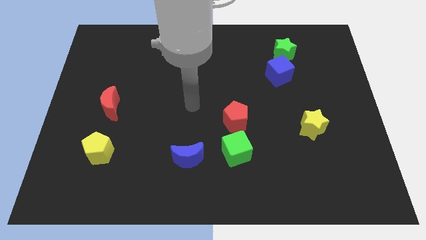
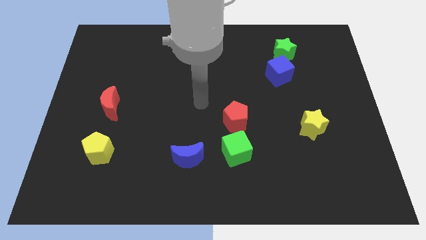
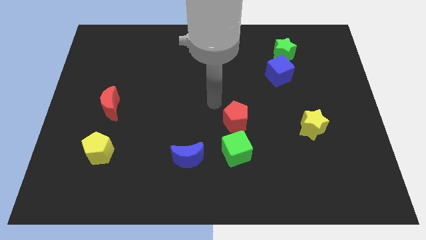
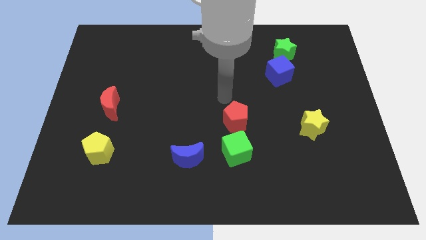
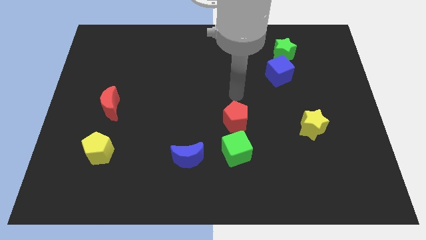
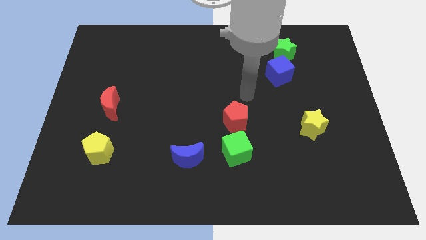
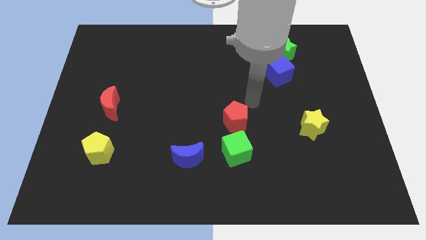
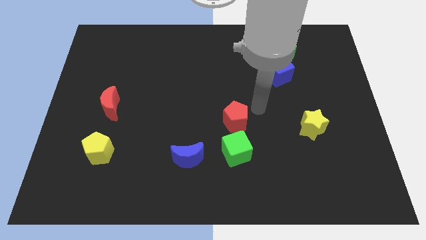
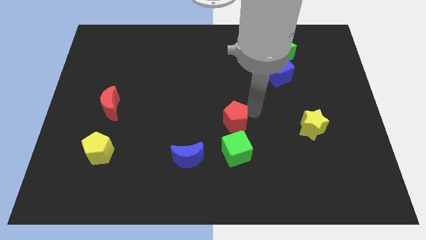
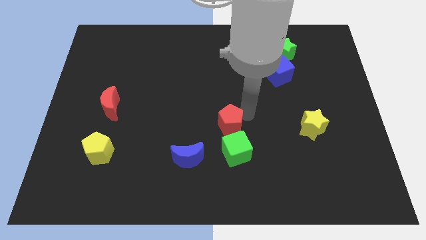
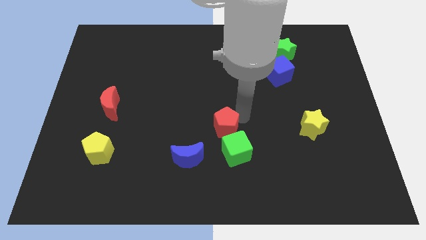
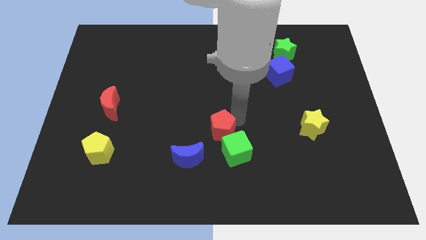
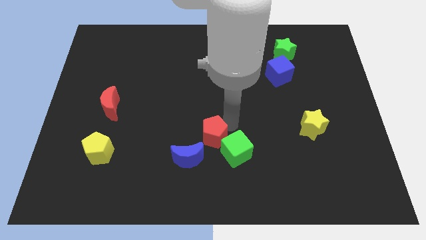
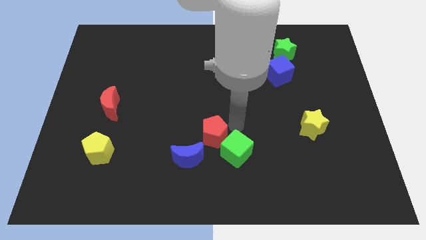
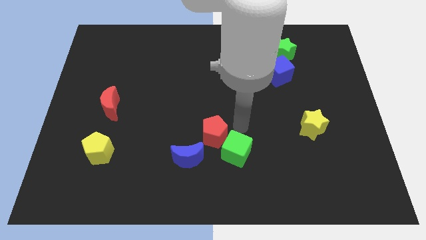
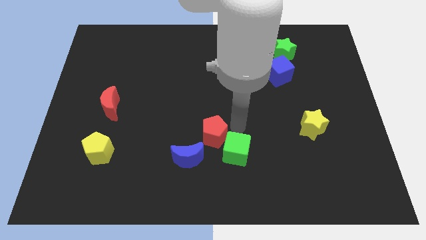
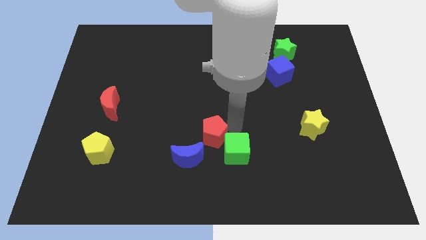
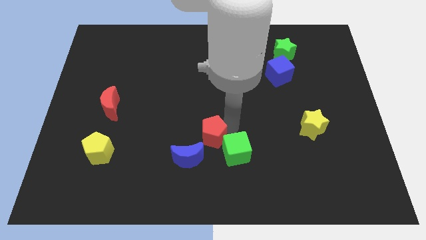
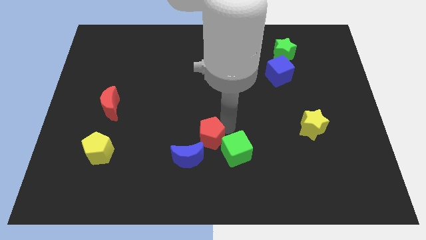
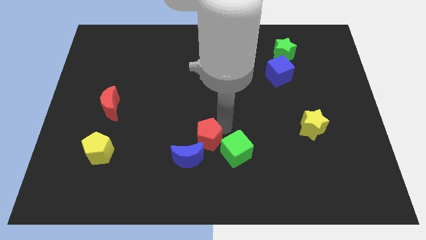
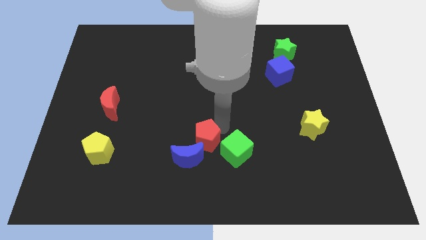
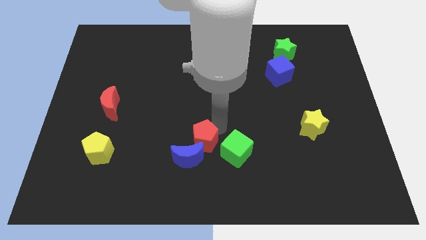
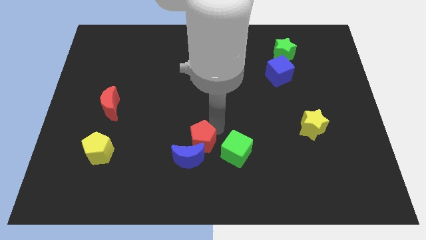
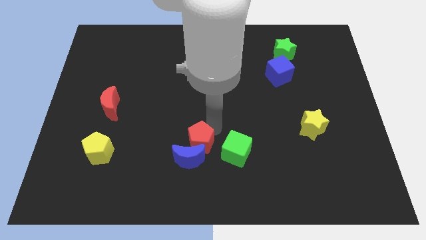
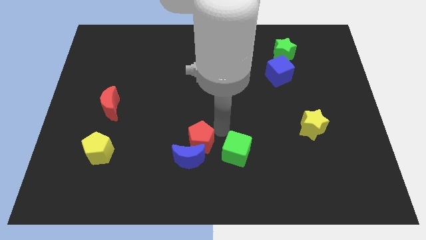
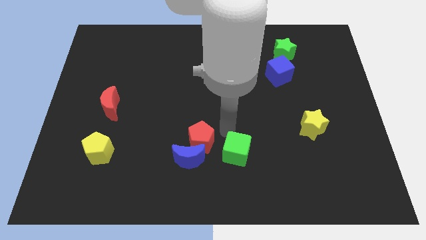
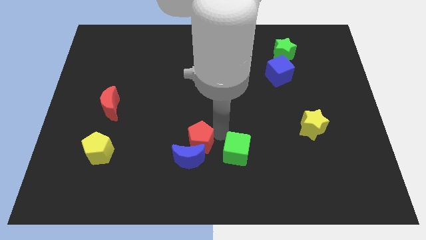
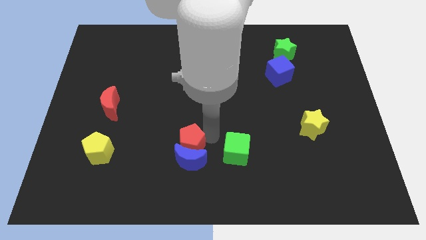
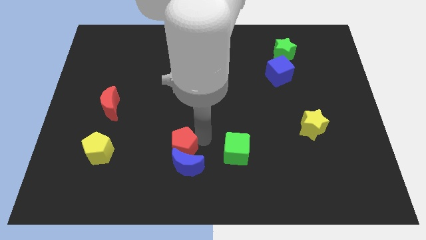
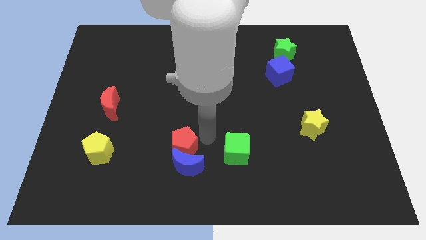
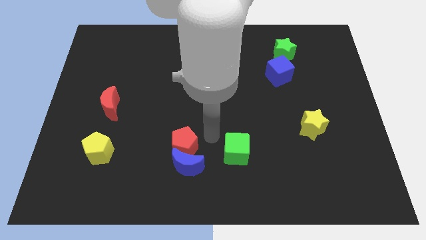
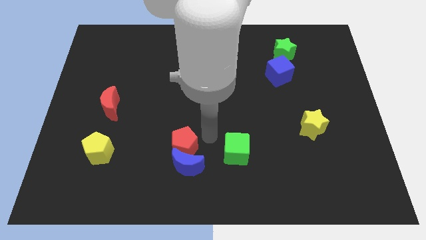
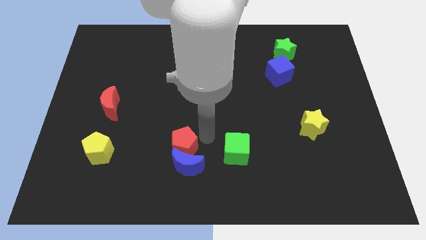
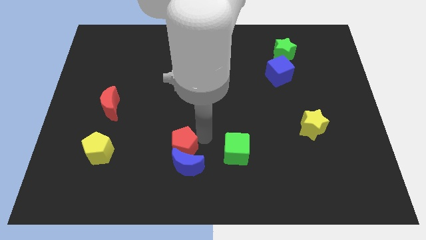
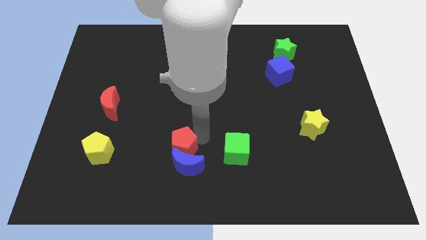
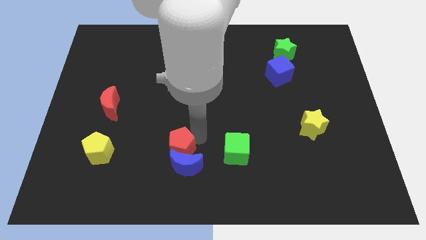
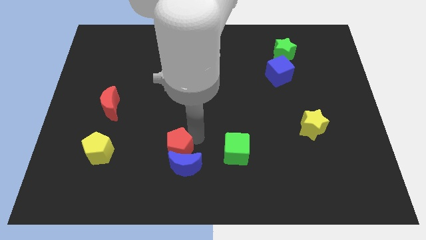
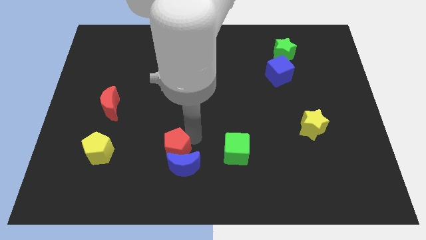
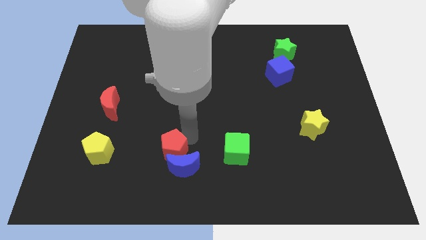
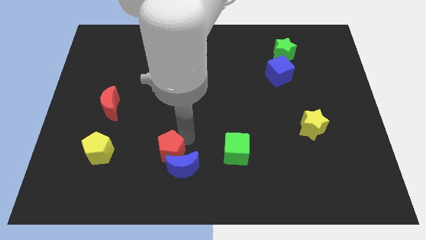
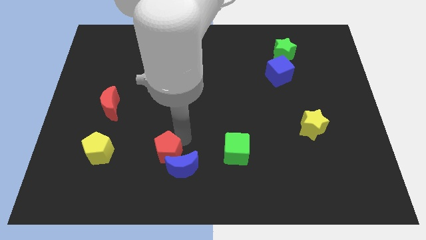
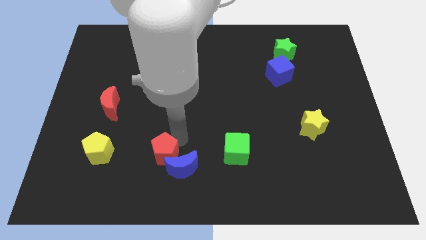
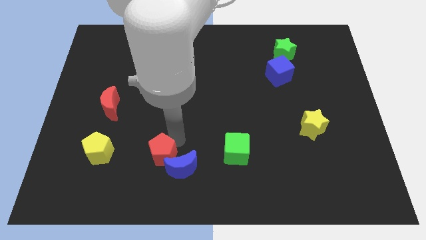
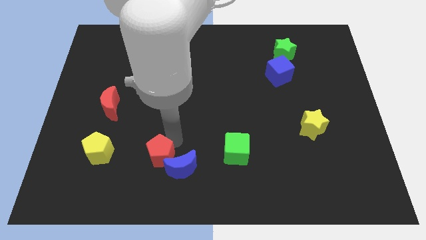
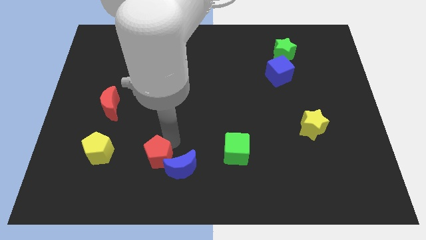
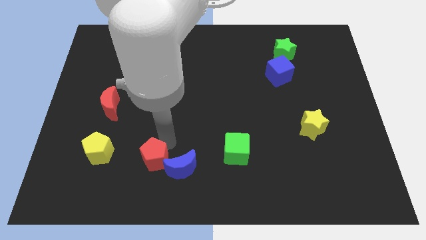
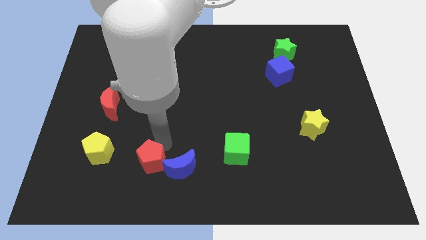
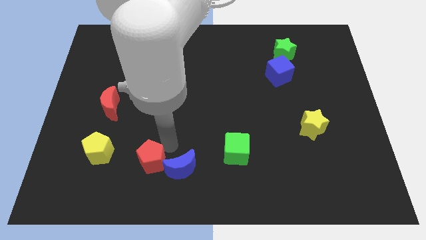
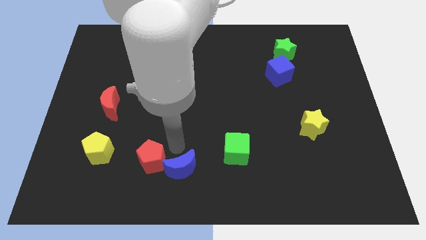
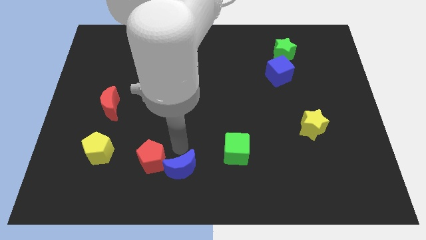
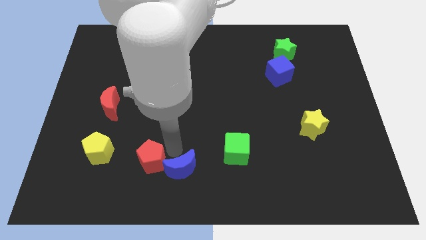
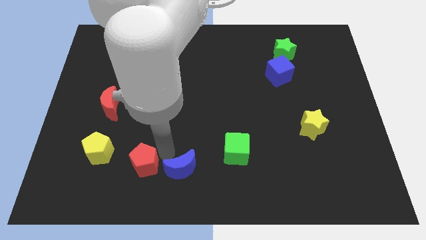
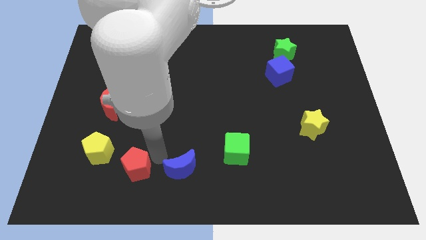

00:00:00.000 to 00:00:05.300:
push the red pentagon to the bottom right of the yellow pentagon

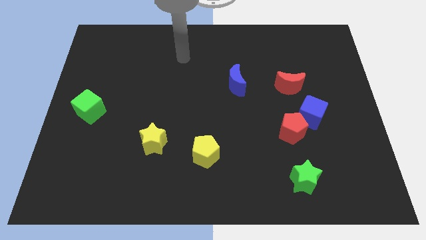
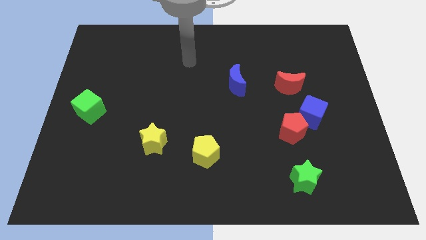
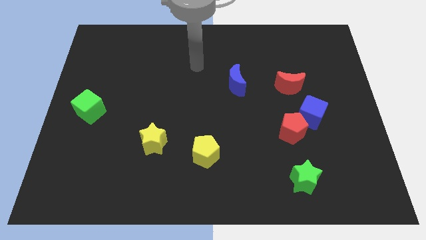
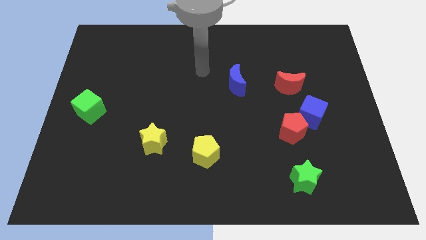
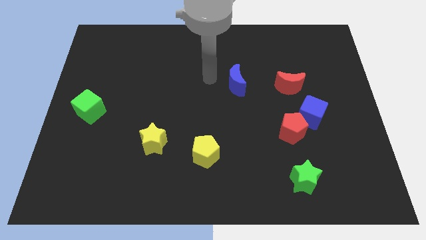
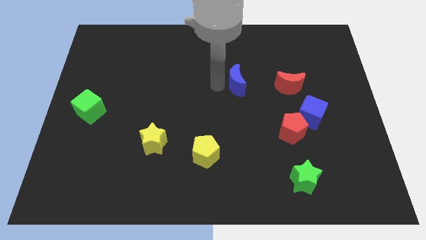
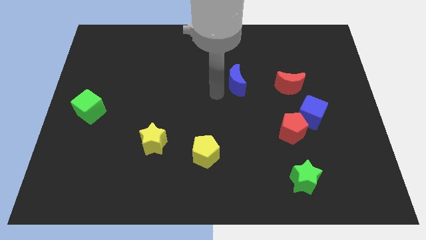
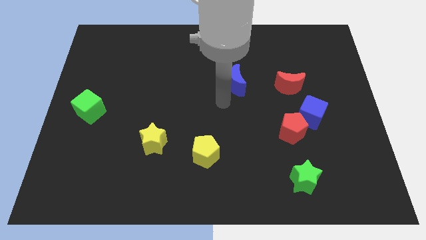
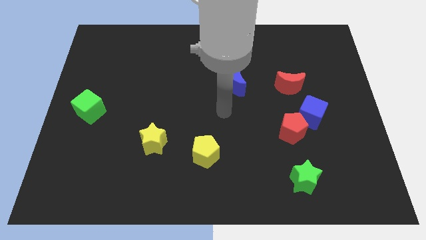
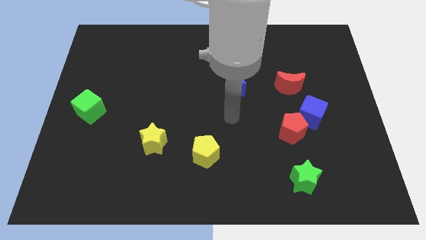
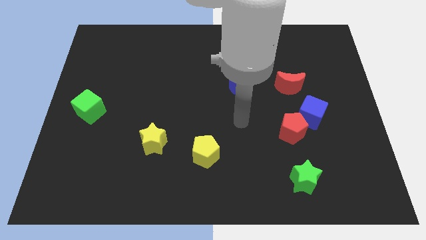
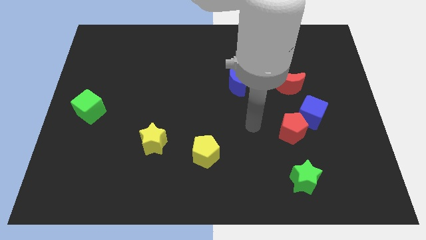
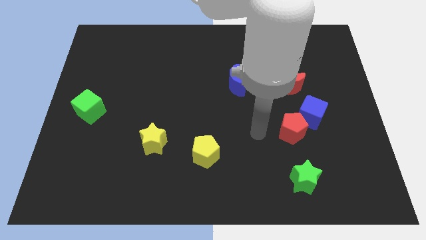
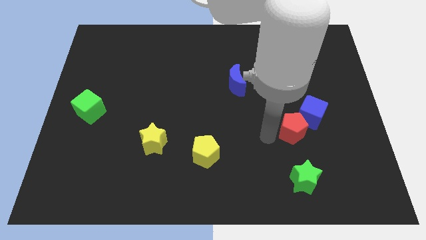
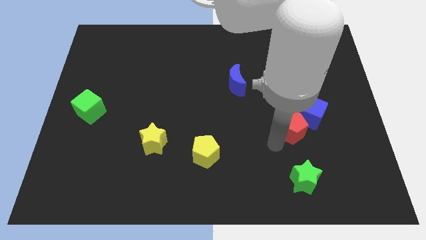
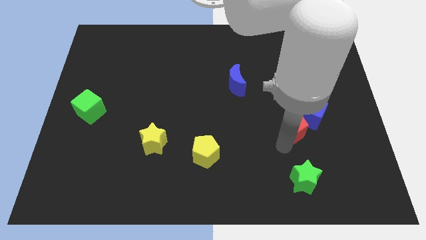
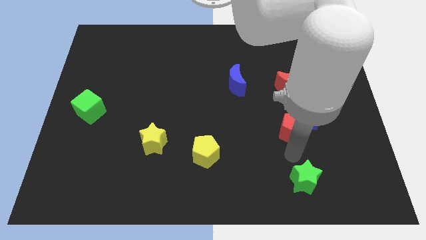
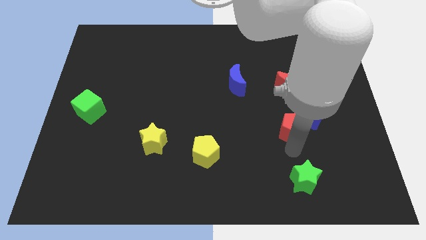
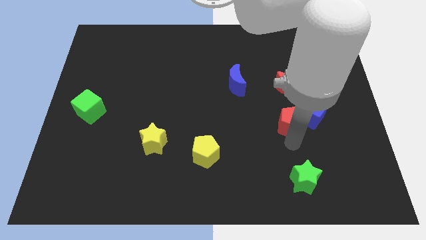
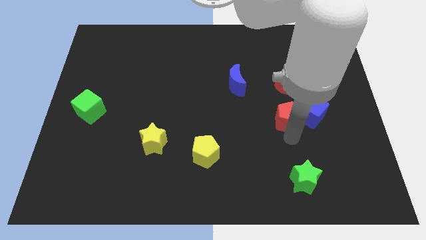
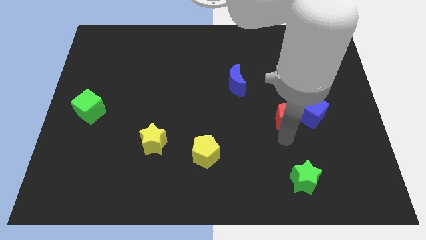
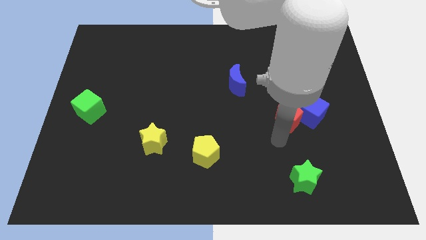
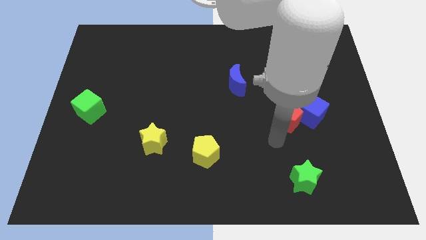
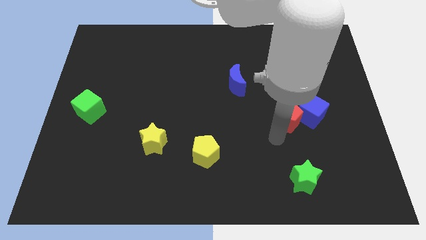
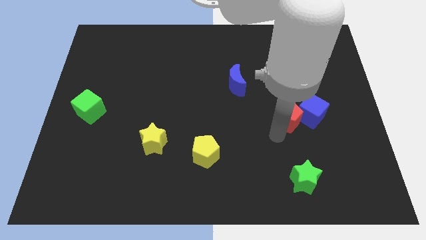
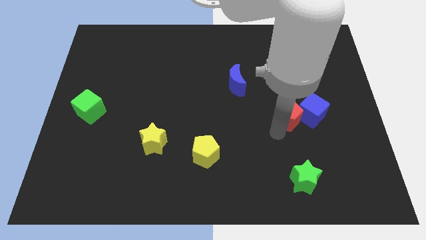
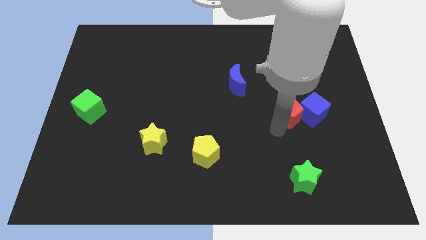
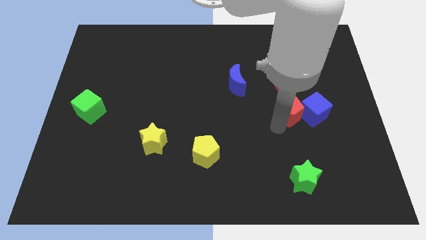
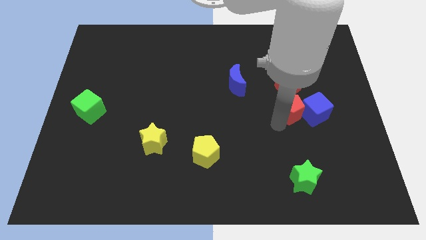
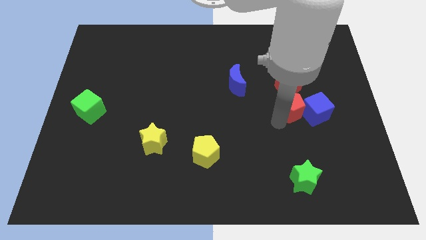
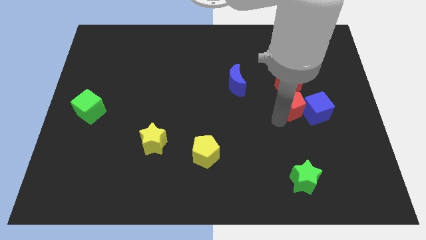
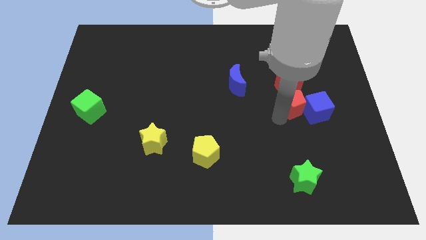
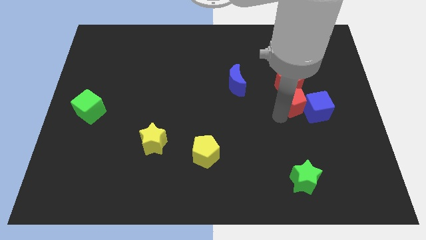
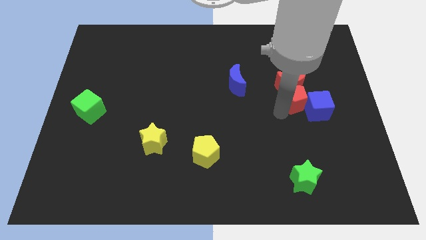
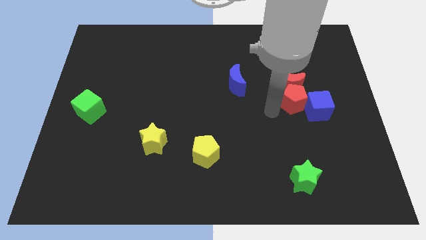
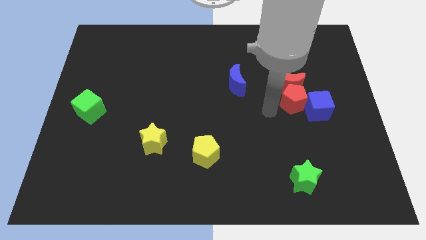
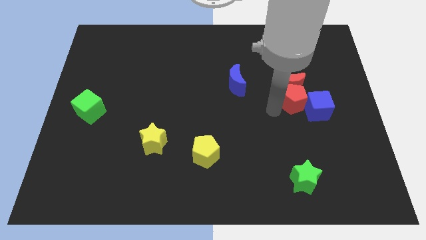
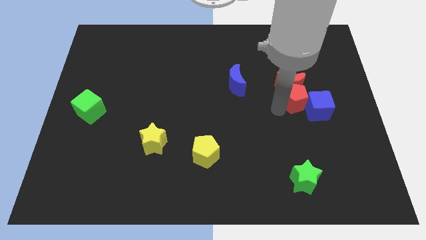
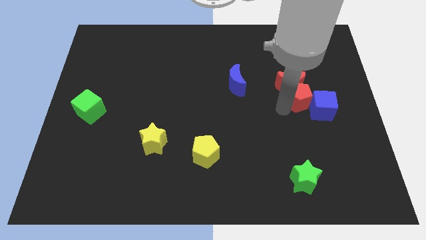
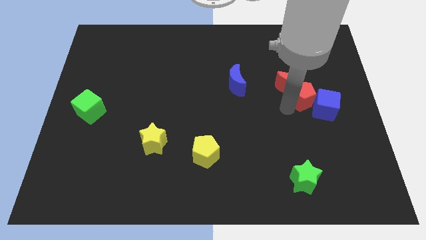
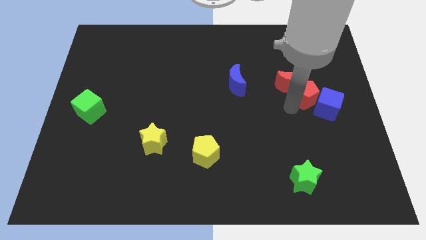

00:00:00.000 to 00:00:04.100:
move the red pentagon to the right side of the red moon
